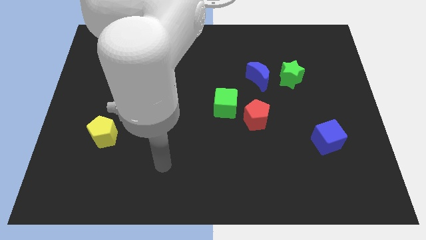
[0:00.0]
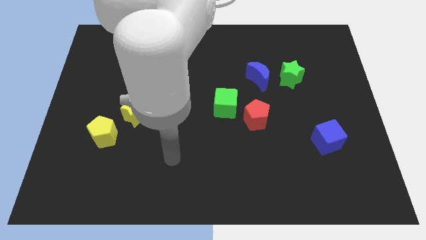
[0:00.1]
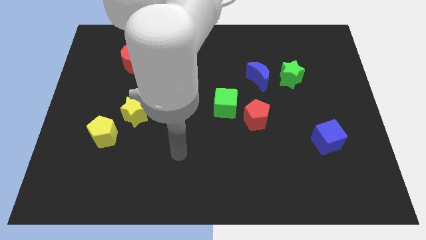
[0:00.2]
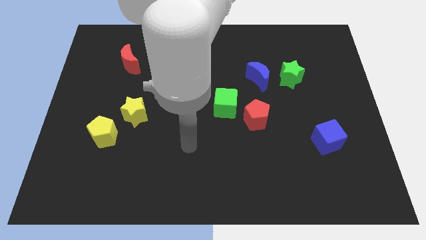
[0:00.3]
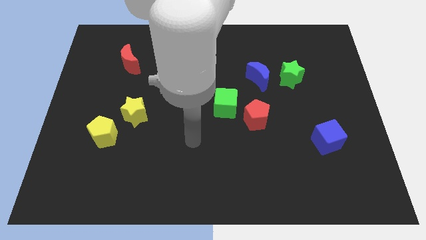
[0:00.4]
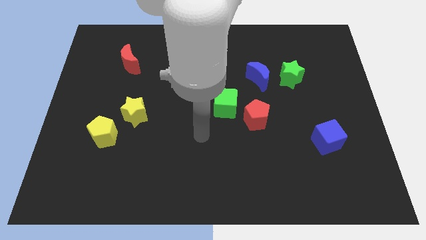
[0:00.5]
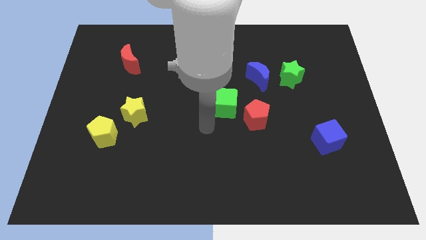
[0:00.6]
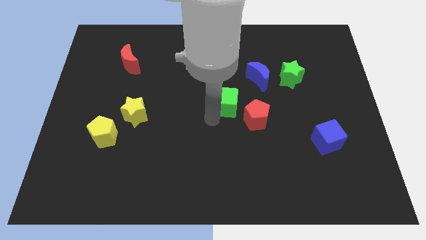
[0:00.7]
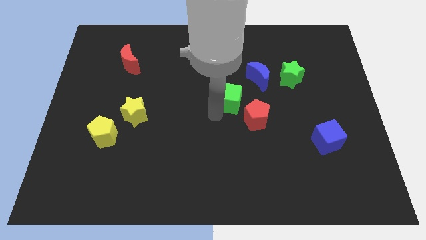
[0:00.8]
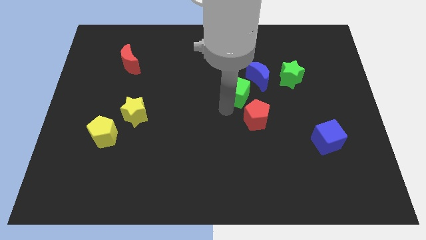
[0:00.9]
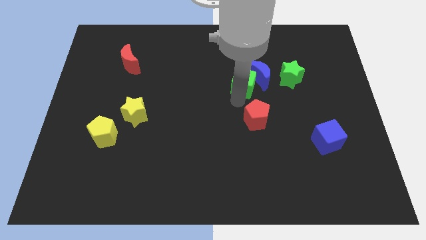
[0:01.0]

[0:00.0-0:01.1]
pull the red pentagon apart from the green cube

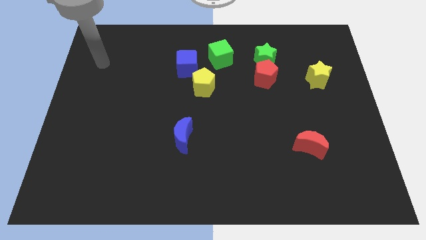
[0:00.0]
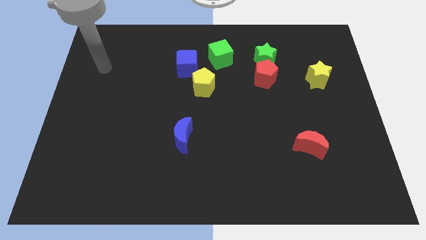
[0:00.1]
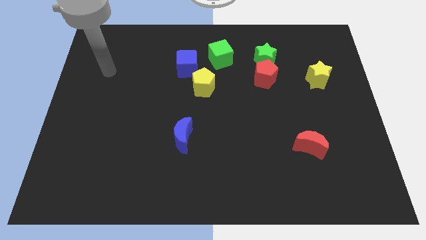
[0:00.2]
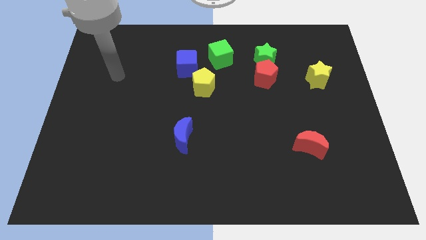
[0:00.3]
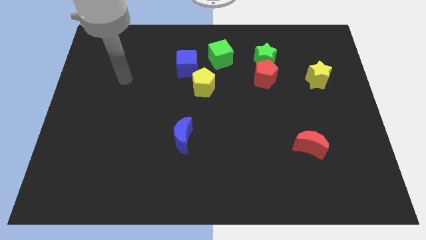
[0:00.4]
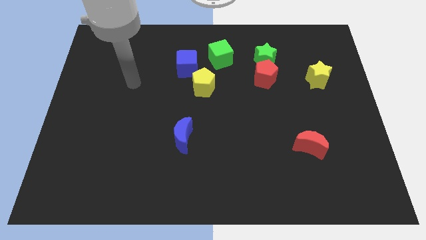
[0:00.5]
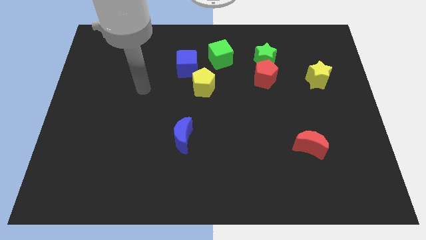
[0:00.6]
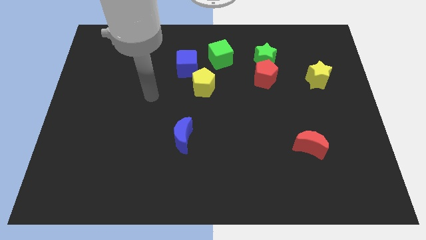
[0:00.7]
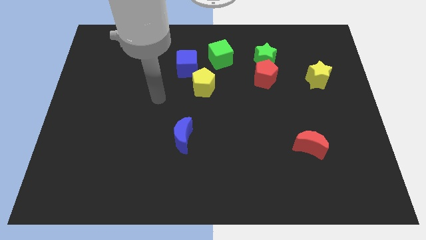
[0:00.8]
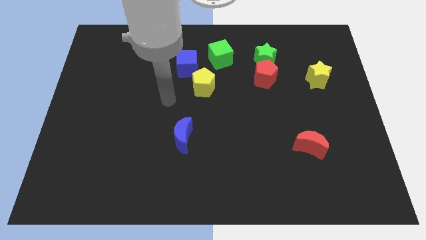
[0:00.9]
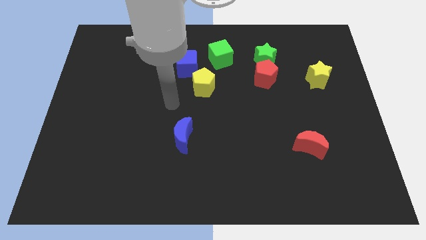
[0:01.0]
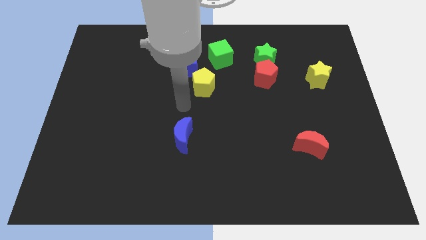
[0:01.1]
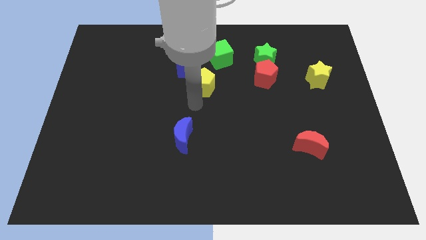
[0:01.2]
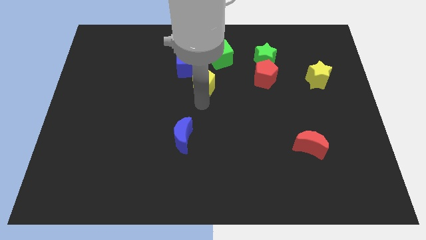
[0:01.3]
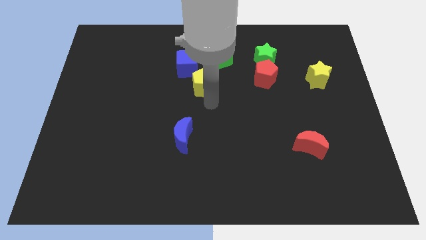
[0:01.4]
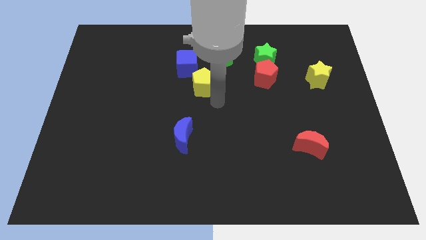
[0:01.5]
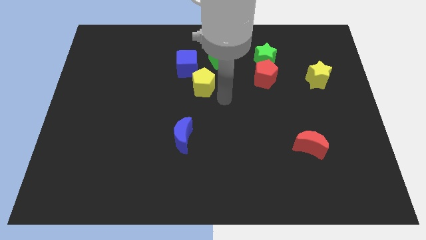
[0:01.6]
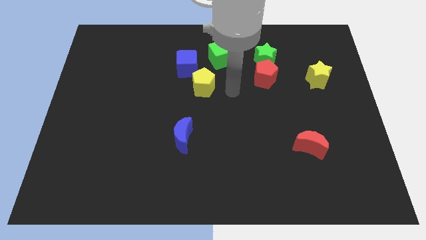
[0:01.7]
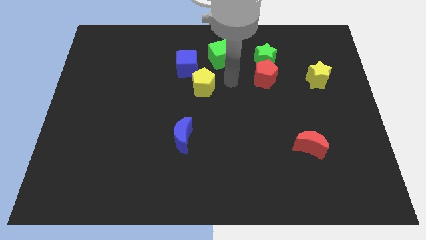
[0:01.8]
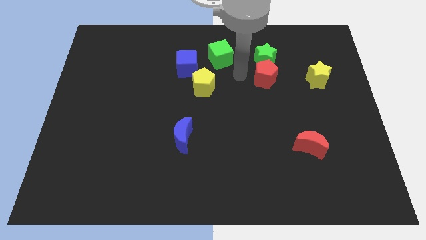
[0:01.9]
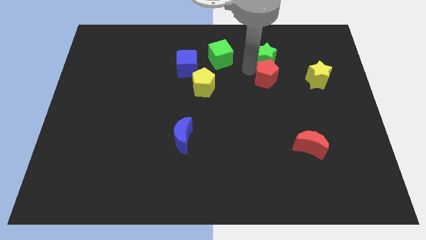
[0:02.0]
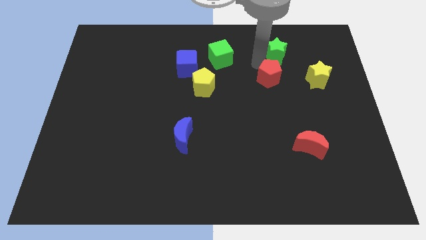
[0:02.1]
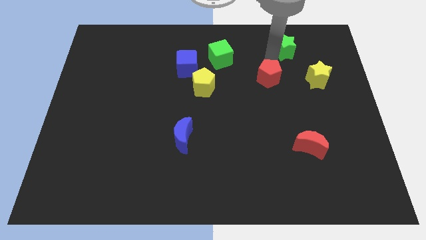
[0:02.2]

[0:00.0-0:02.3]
separate the red pentagon from the green star

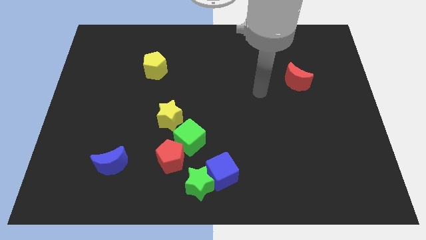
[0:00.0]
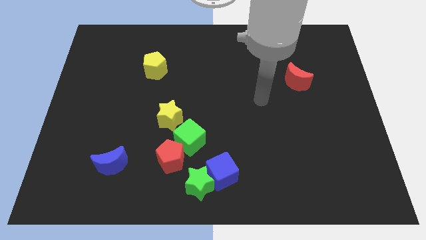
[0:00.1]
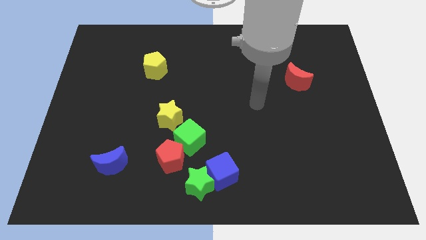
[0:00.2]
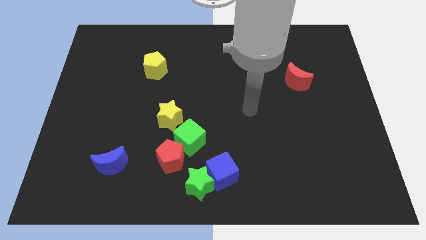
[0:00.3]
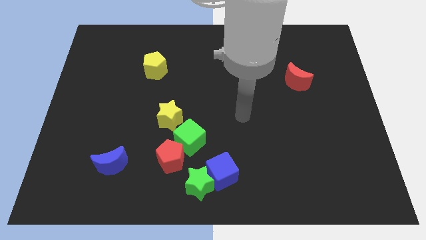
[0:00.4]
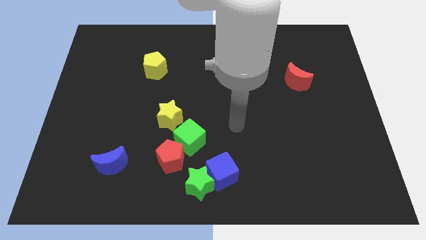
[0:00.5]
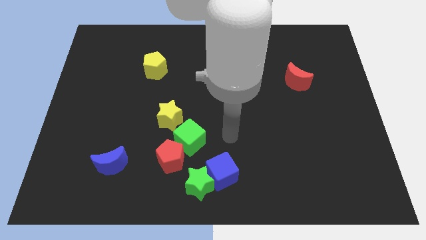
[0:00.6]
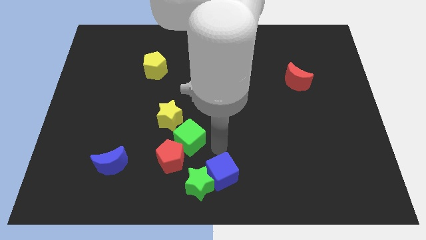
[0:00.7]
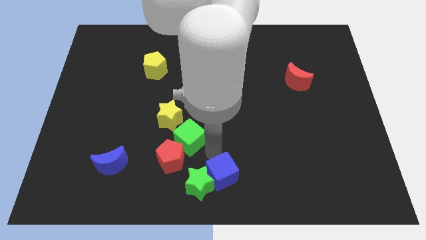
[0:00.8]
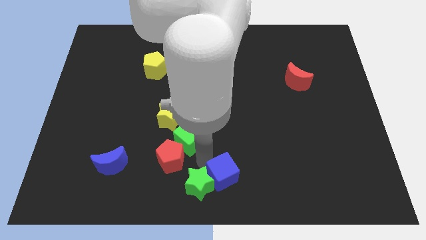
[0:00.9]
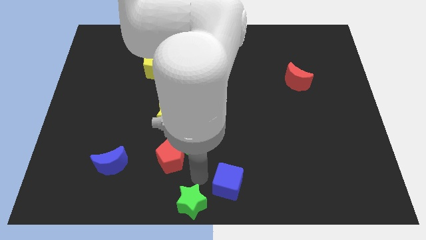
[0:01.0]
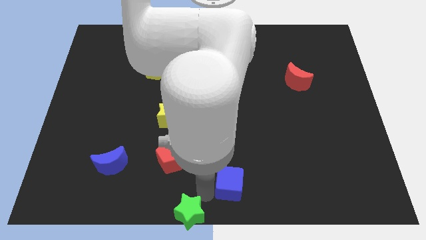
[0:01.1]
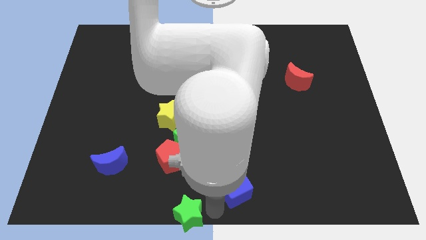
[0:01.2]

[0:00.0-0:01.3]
move the blue cube away from the green star

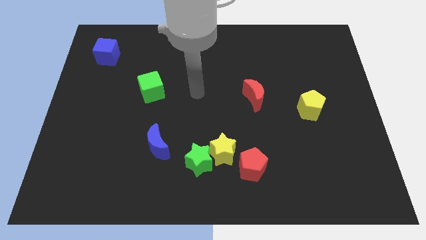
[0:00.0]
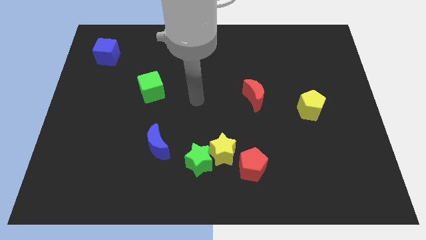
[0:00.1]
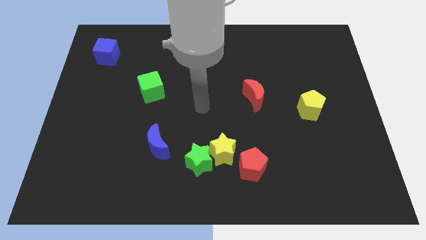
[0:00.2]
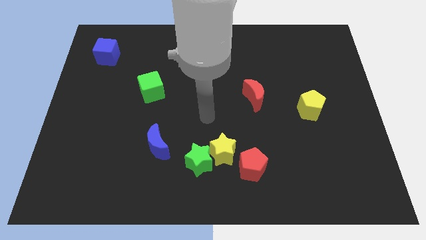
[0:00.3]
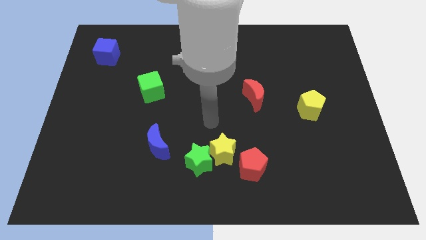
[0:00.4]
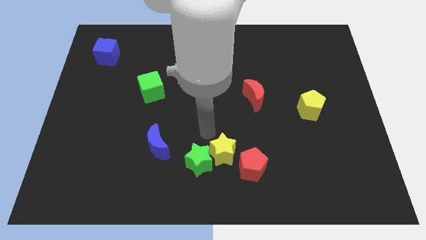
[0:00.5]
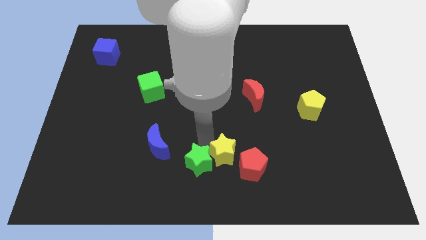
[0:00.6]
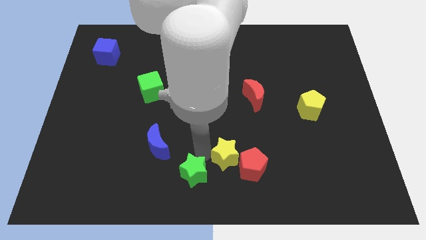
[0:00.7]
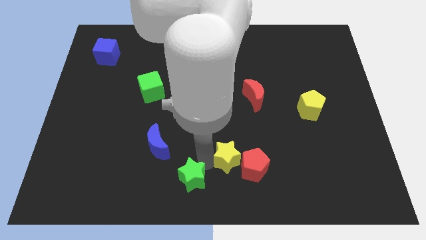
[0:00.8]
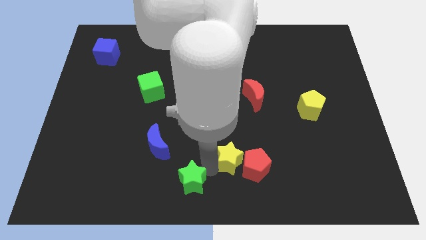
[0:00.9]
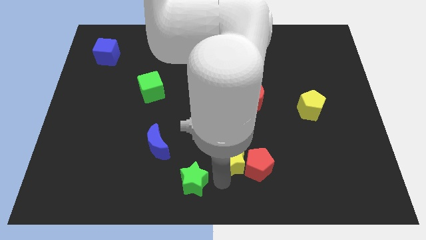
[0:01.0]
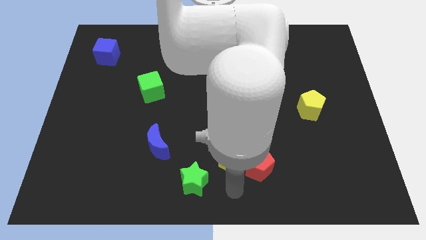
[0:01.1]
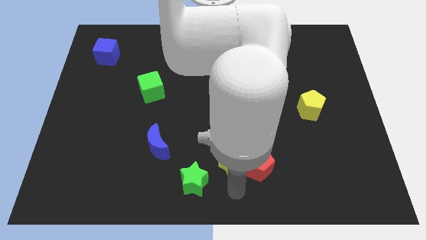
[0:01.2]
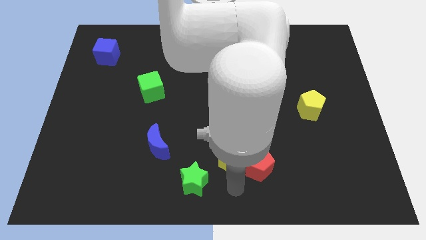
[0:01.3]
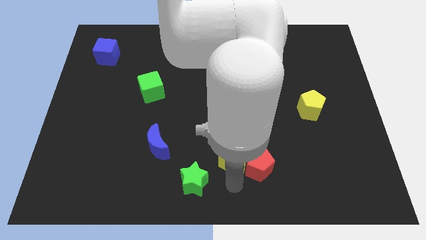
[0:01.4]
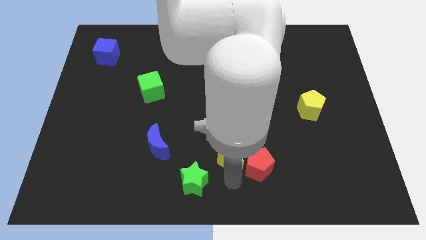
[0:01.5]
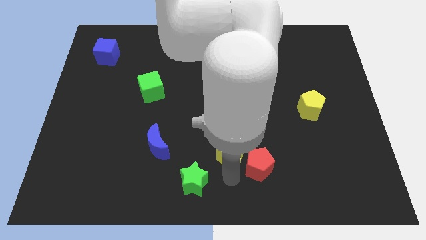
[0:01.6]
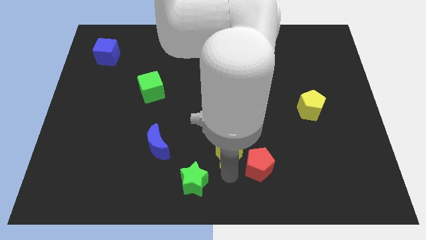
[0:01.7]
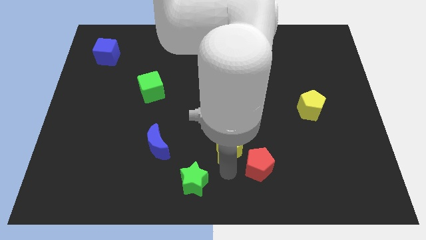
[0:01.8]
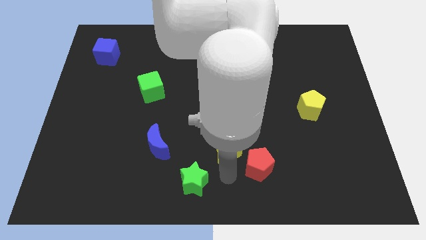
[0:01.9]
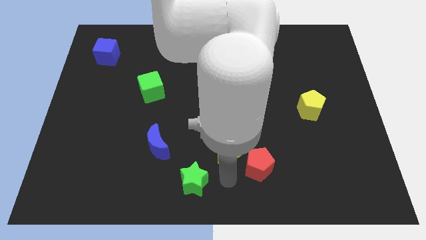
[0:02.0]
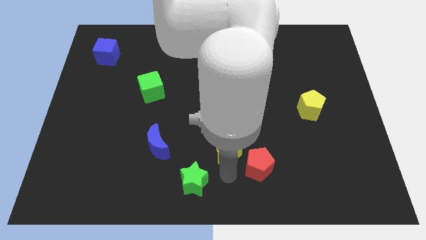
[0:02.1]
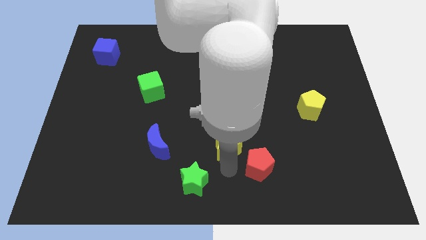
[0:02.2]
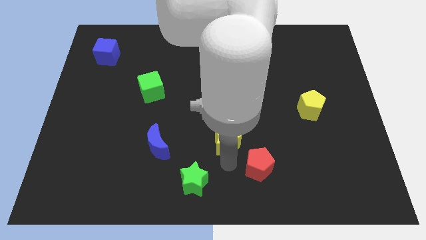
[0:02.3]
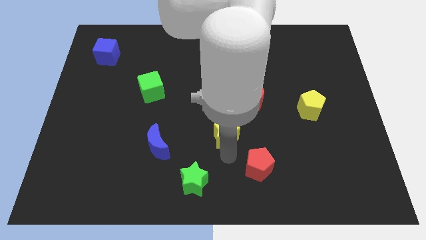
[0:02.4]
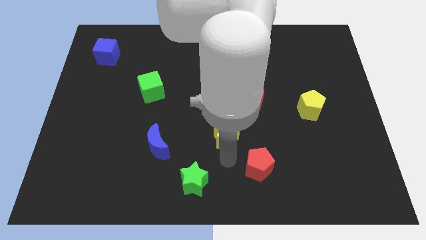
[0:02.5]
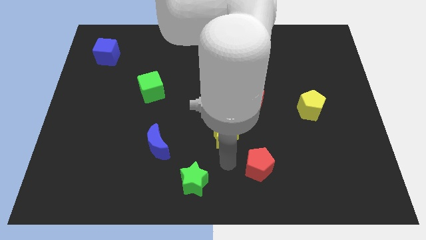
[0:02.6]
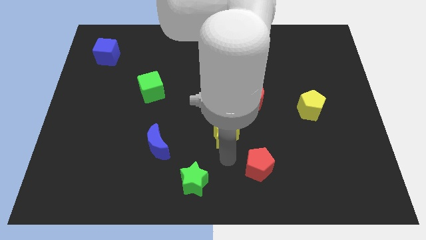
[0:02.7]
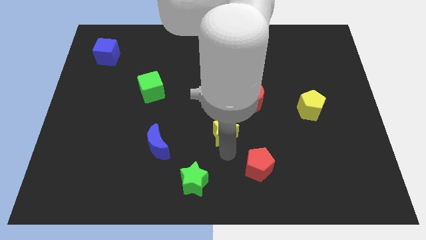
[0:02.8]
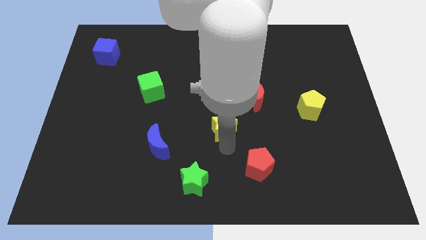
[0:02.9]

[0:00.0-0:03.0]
move the yellow star away from the green star and red pentagon

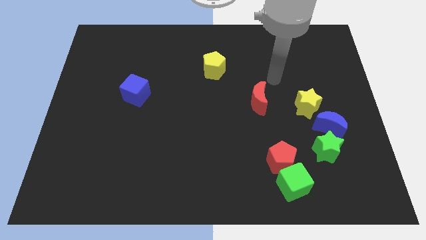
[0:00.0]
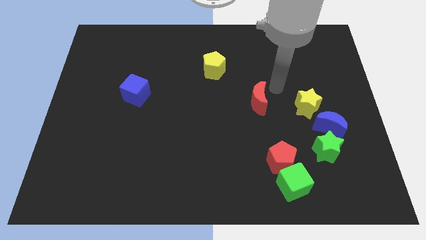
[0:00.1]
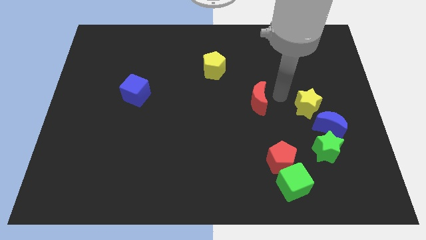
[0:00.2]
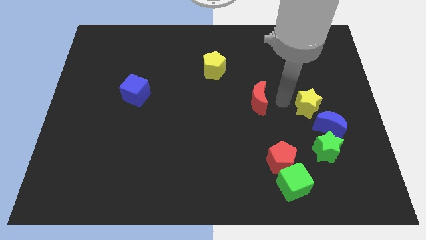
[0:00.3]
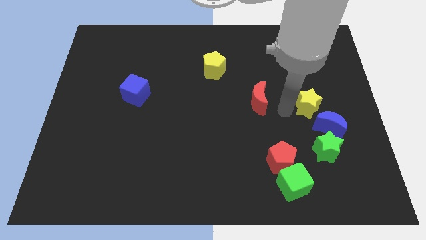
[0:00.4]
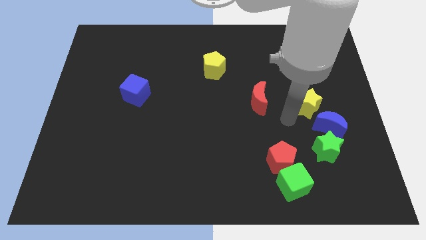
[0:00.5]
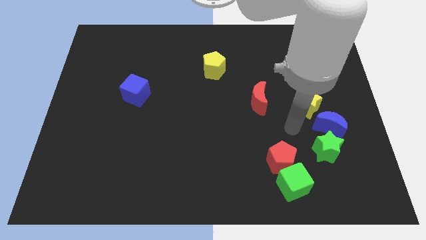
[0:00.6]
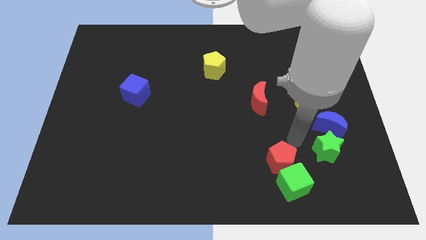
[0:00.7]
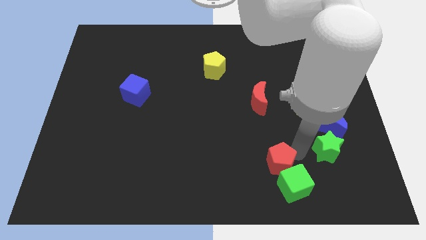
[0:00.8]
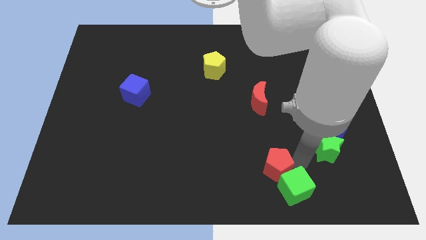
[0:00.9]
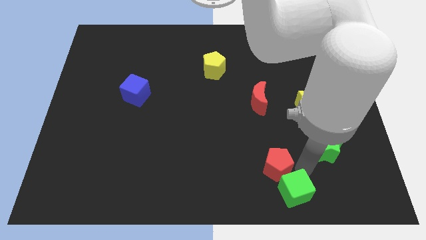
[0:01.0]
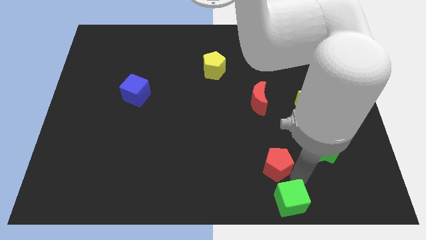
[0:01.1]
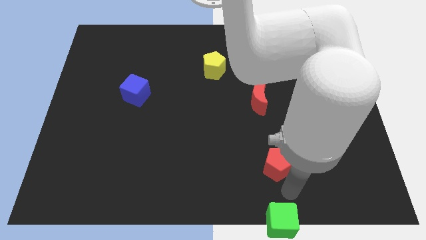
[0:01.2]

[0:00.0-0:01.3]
separate the red pentagon from the green cube

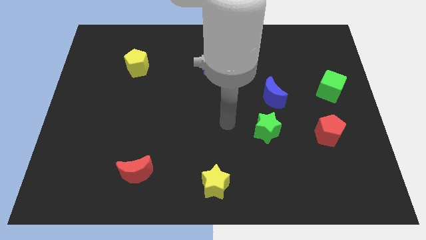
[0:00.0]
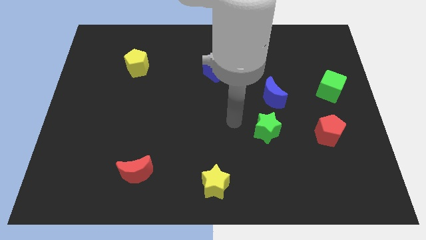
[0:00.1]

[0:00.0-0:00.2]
separate the blue moon from the green star
